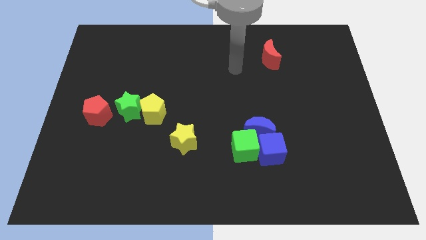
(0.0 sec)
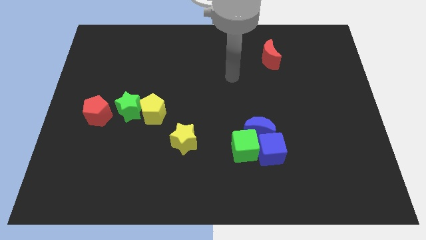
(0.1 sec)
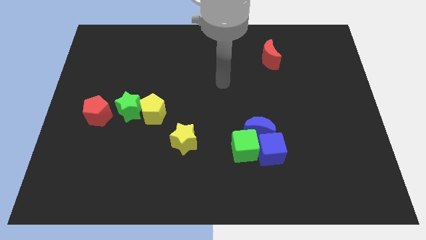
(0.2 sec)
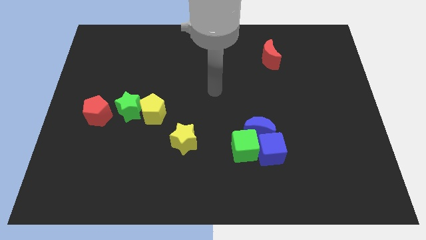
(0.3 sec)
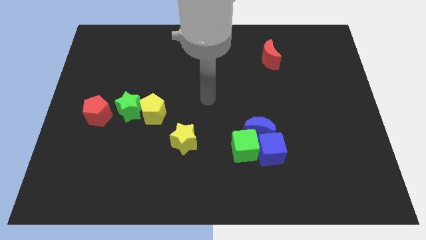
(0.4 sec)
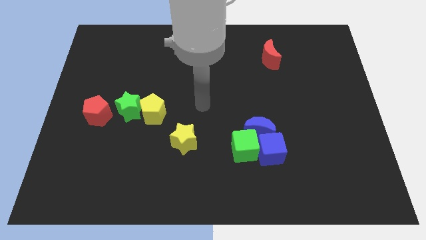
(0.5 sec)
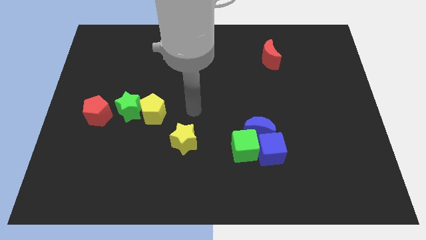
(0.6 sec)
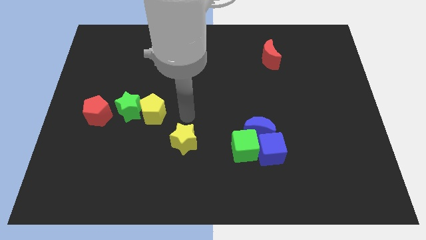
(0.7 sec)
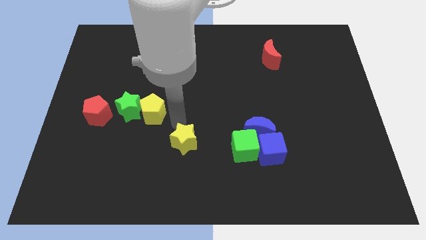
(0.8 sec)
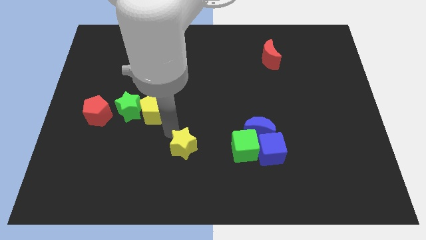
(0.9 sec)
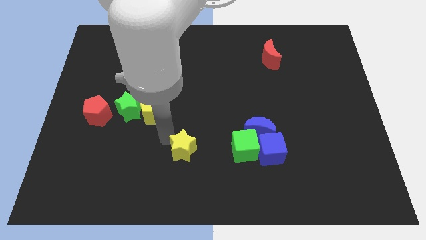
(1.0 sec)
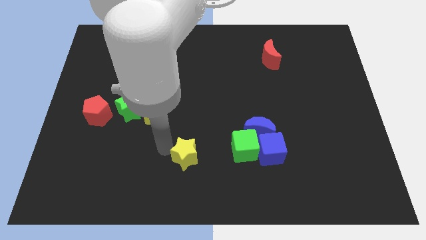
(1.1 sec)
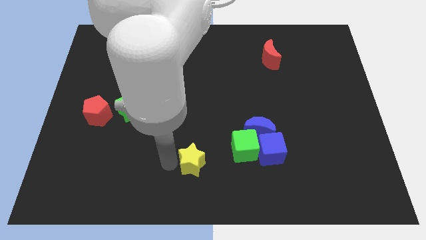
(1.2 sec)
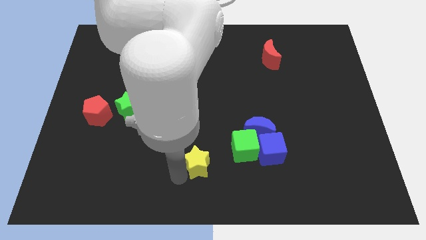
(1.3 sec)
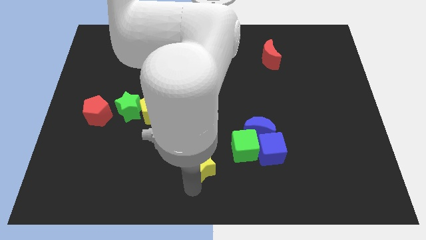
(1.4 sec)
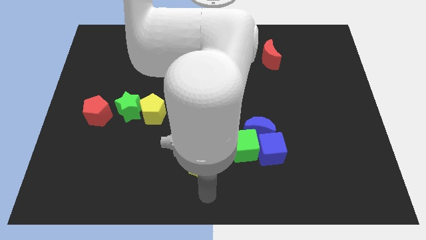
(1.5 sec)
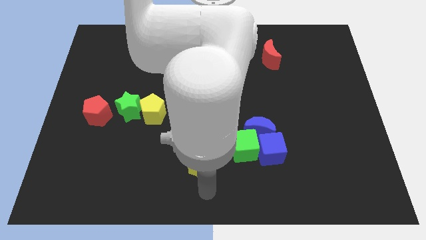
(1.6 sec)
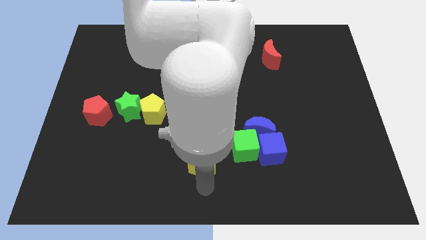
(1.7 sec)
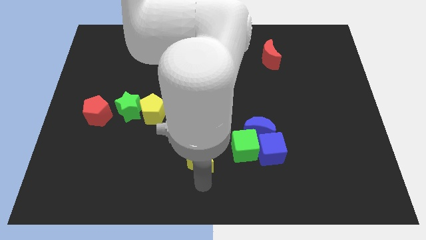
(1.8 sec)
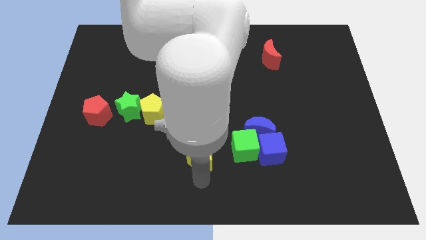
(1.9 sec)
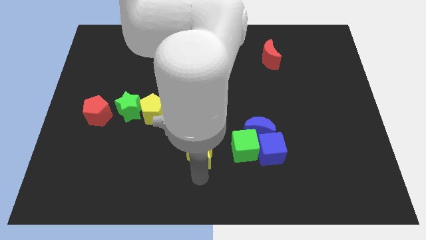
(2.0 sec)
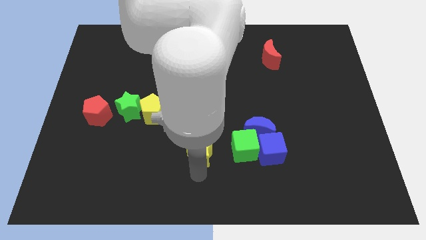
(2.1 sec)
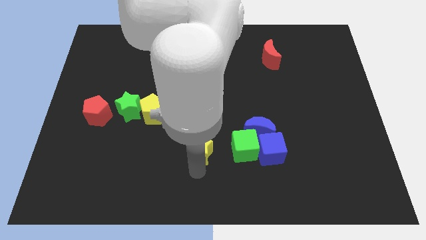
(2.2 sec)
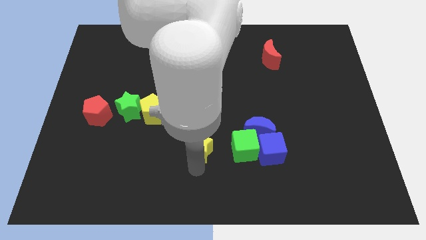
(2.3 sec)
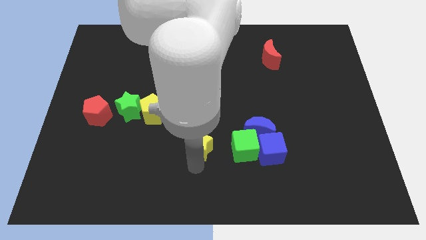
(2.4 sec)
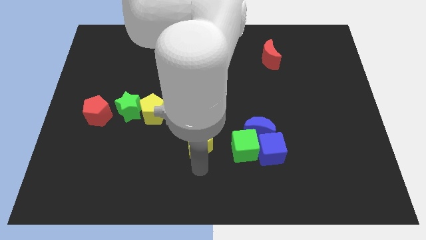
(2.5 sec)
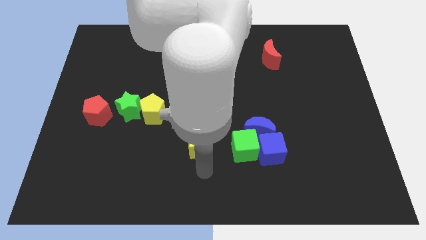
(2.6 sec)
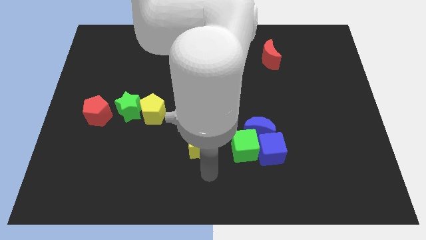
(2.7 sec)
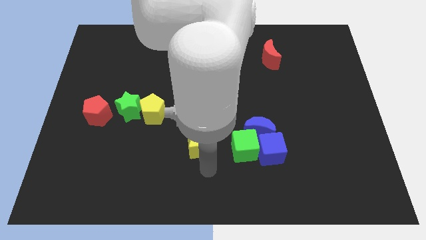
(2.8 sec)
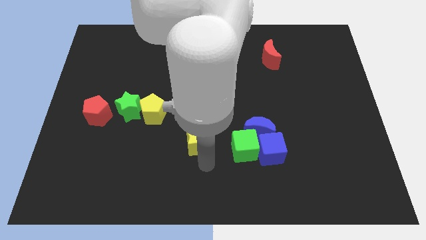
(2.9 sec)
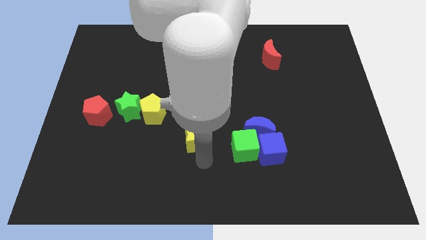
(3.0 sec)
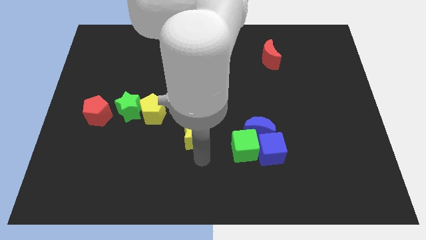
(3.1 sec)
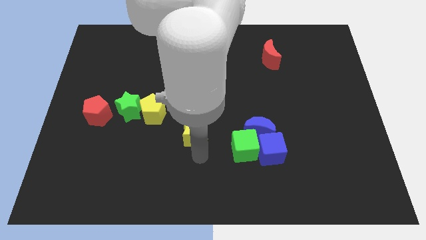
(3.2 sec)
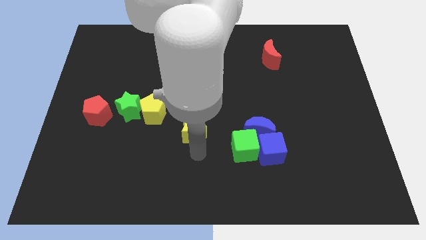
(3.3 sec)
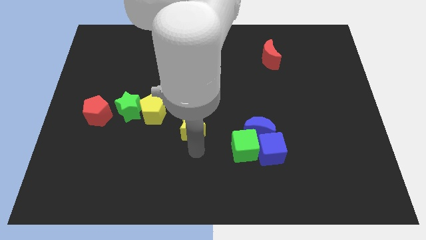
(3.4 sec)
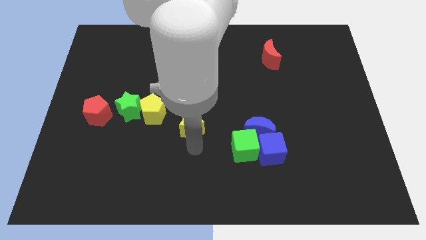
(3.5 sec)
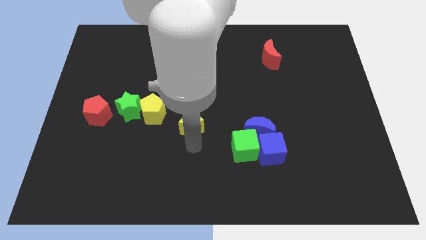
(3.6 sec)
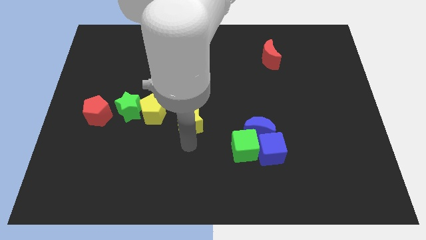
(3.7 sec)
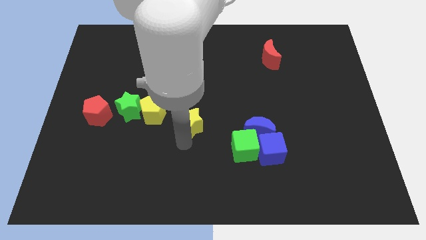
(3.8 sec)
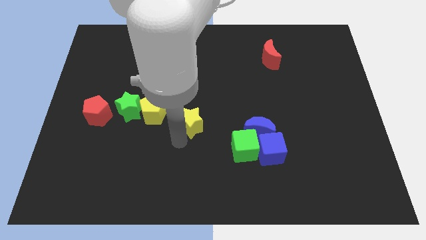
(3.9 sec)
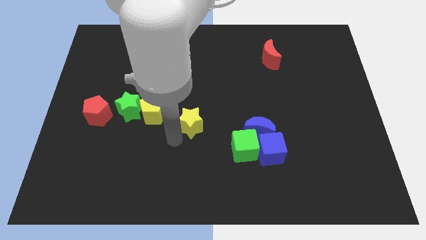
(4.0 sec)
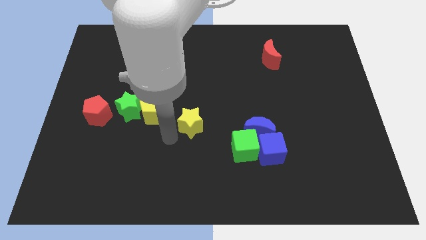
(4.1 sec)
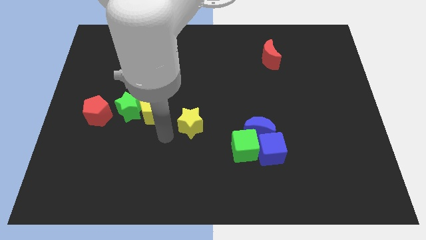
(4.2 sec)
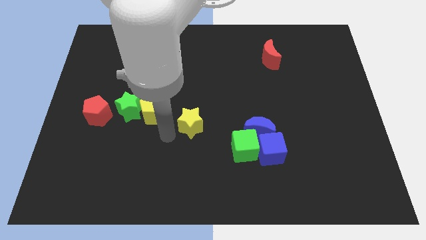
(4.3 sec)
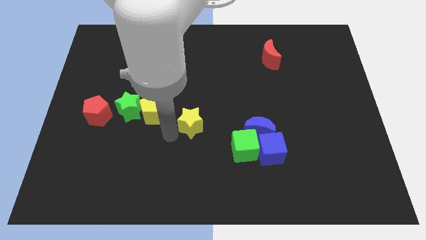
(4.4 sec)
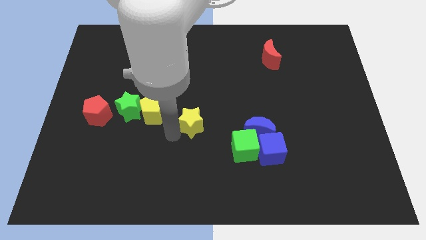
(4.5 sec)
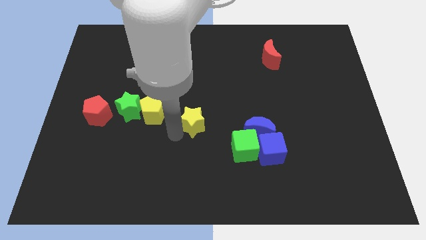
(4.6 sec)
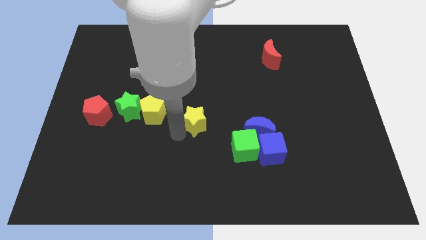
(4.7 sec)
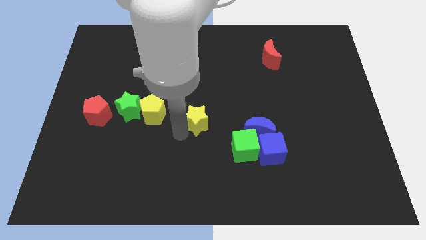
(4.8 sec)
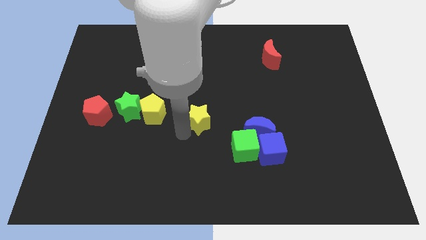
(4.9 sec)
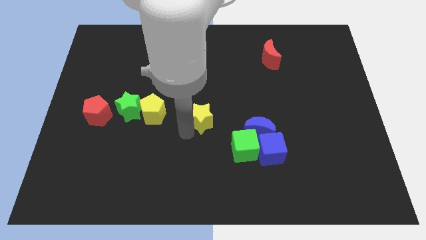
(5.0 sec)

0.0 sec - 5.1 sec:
slide the yellow star a little diagonally upwards and right

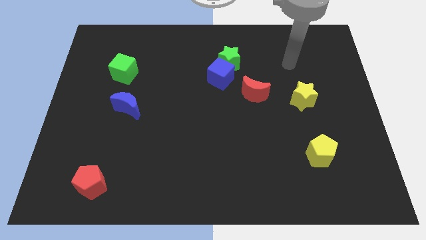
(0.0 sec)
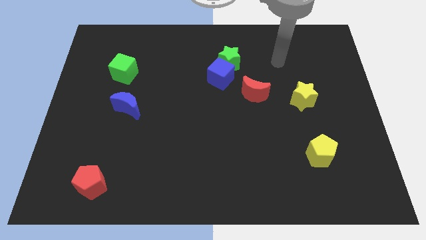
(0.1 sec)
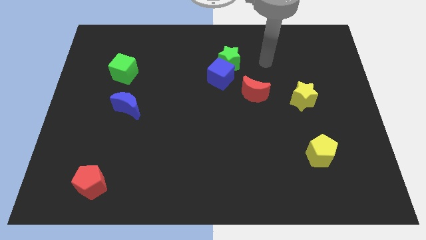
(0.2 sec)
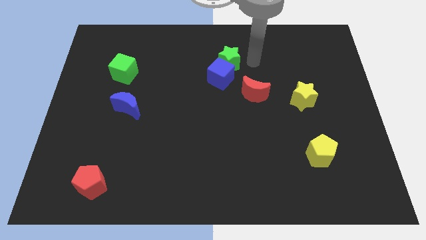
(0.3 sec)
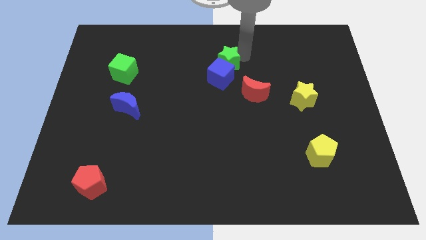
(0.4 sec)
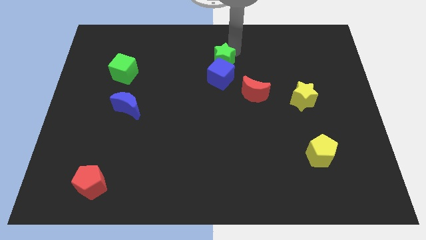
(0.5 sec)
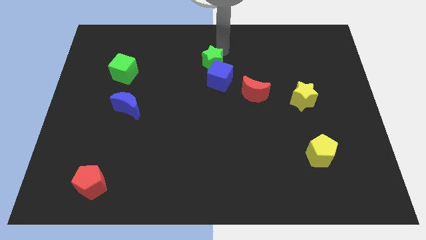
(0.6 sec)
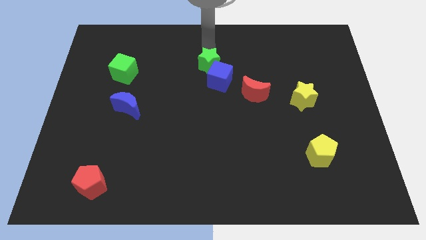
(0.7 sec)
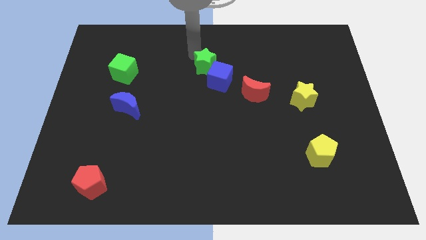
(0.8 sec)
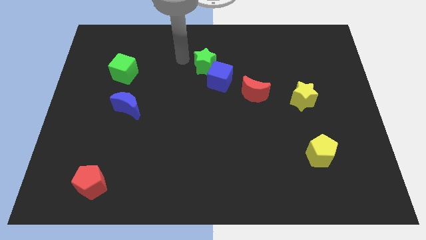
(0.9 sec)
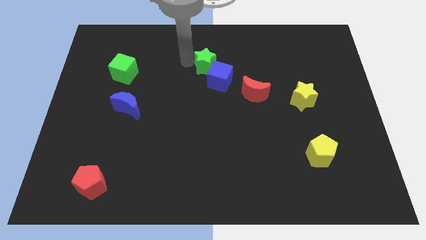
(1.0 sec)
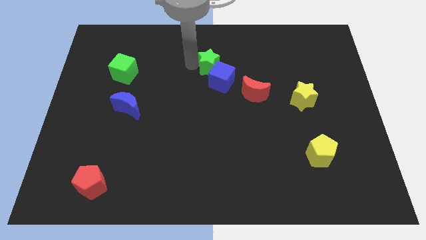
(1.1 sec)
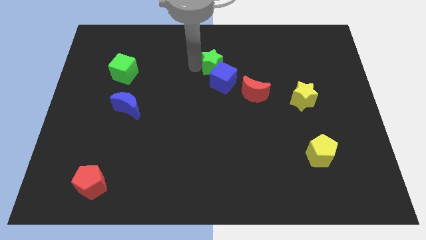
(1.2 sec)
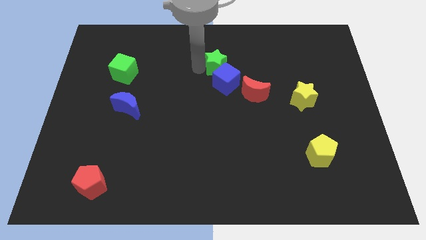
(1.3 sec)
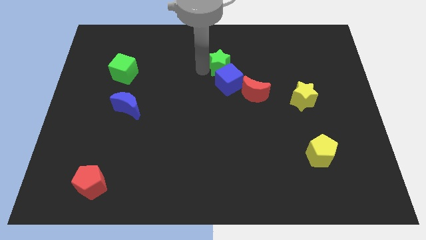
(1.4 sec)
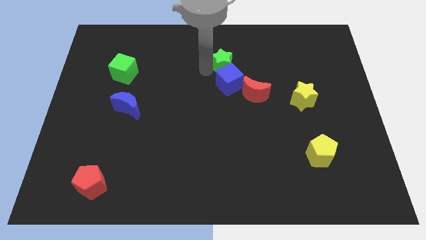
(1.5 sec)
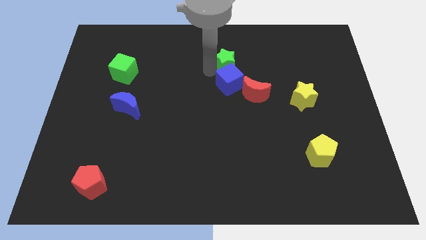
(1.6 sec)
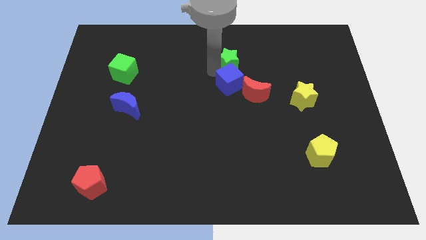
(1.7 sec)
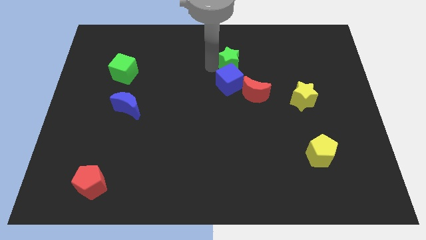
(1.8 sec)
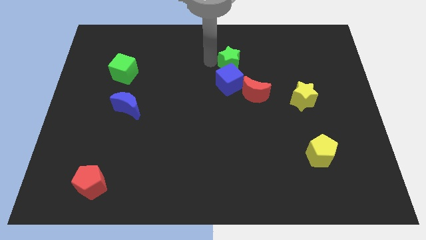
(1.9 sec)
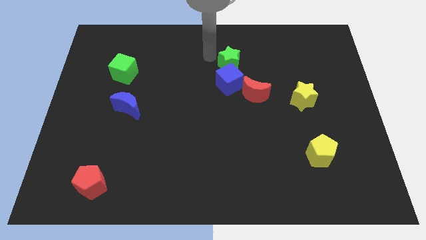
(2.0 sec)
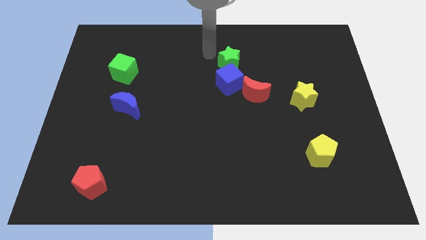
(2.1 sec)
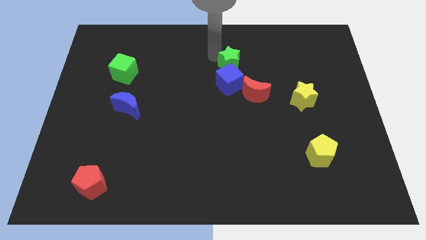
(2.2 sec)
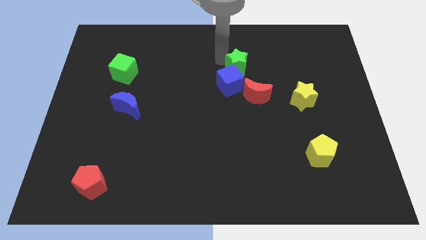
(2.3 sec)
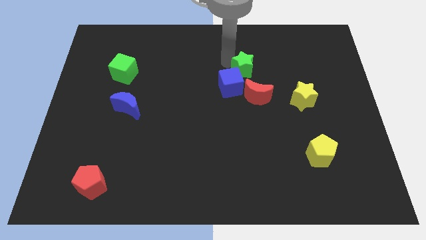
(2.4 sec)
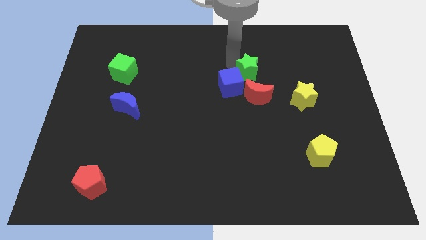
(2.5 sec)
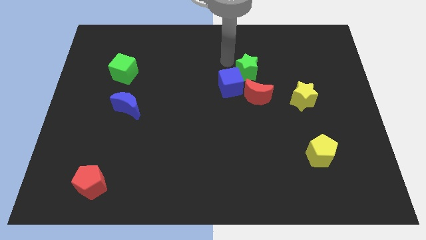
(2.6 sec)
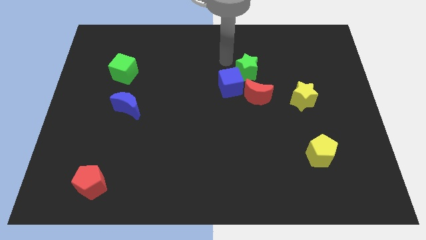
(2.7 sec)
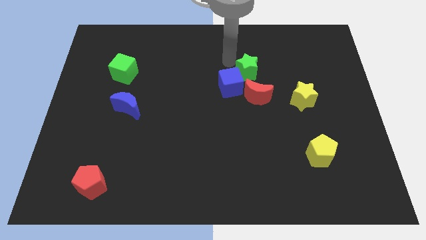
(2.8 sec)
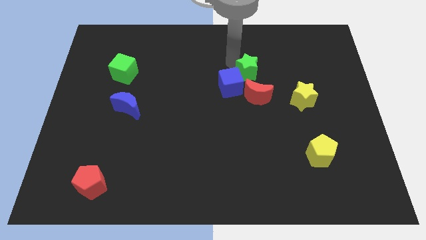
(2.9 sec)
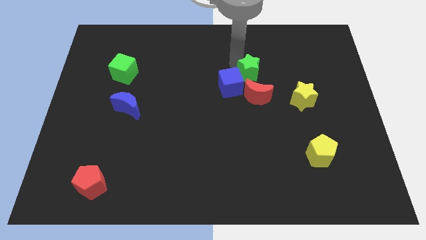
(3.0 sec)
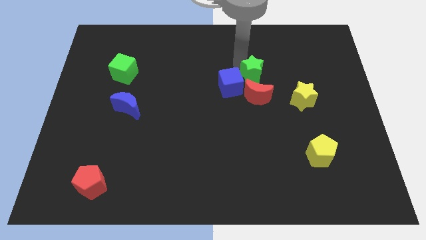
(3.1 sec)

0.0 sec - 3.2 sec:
move the green star a little bit diagonally downwards and right
